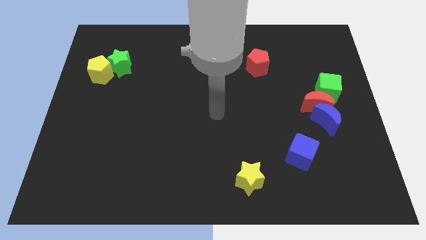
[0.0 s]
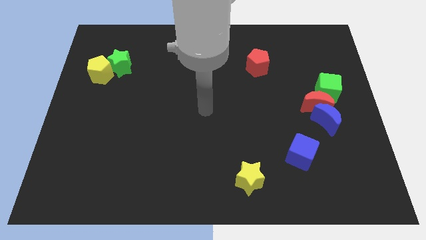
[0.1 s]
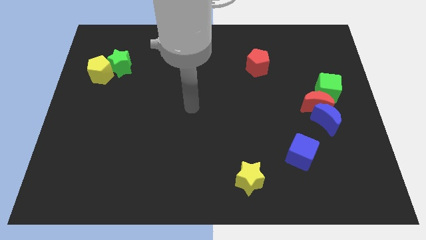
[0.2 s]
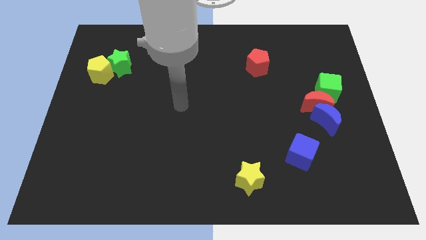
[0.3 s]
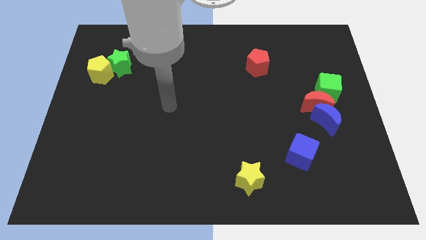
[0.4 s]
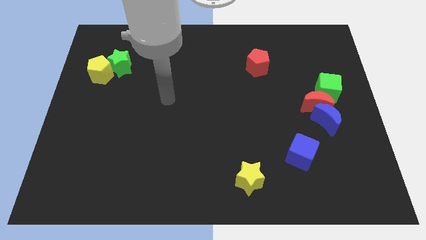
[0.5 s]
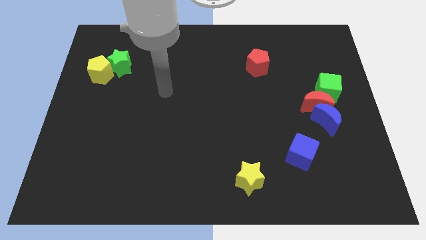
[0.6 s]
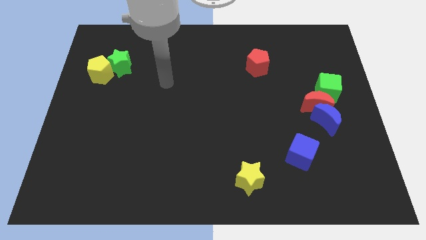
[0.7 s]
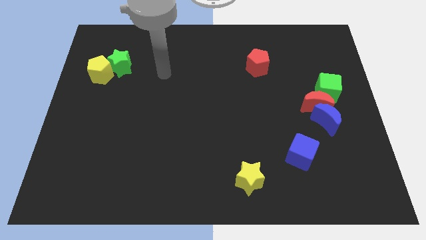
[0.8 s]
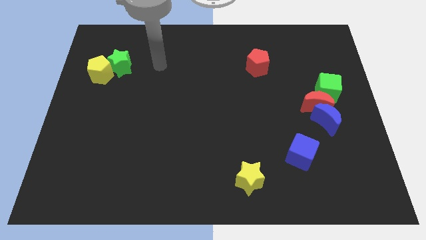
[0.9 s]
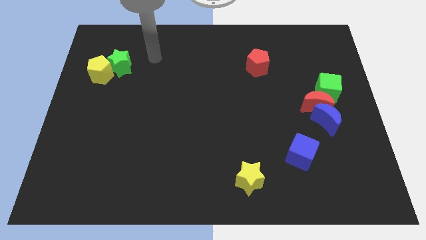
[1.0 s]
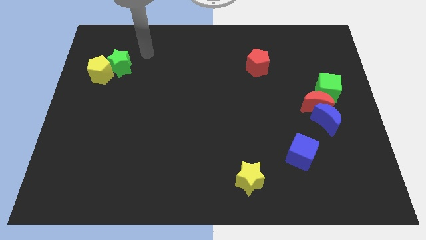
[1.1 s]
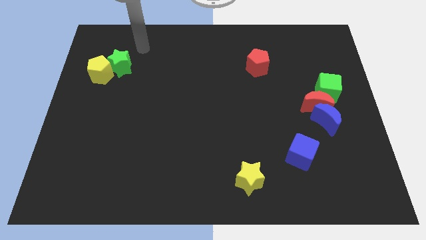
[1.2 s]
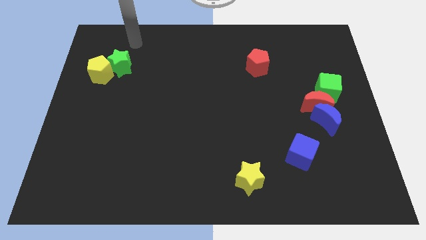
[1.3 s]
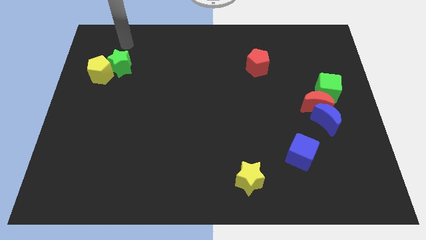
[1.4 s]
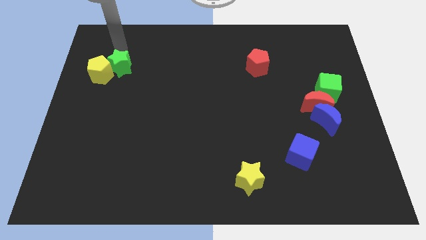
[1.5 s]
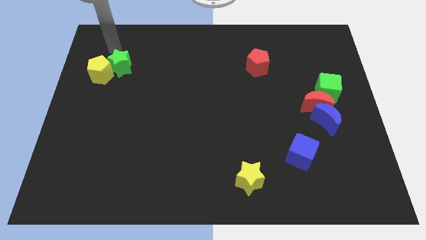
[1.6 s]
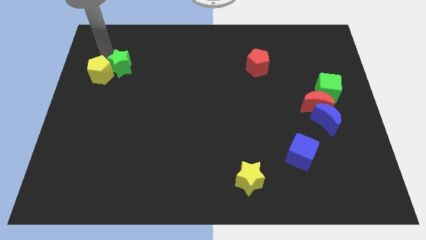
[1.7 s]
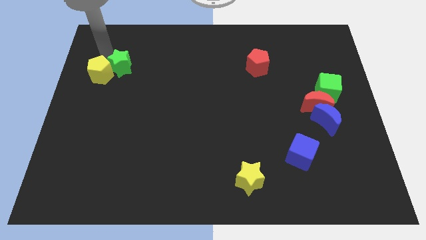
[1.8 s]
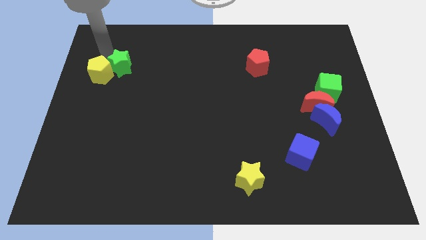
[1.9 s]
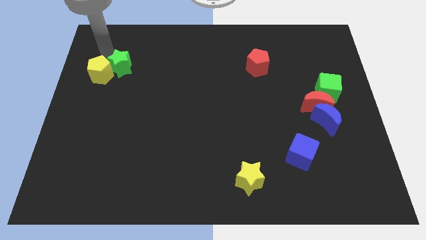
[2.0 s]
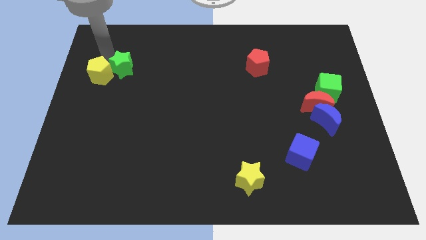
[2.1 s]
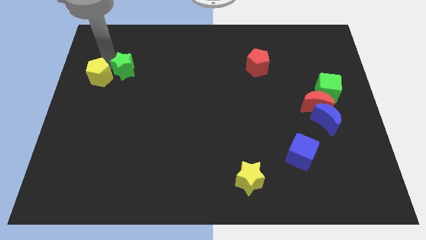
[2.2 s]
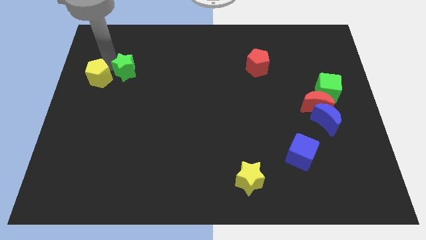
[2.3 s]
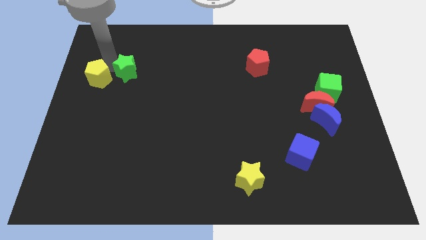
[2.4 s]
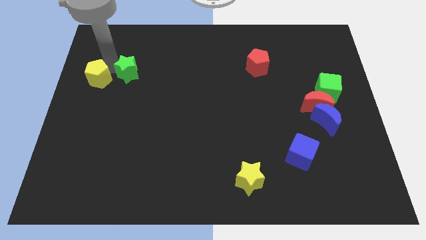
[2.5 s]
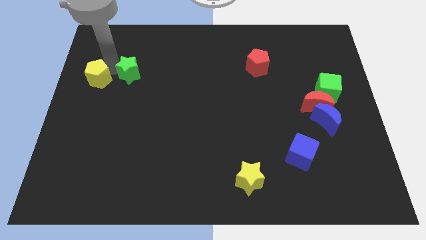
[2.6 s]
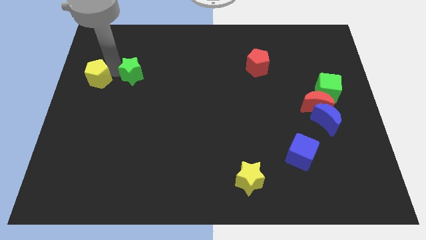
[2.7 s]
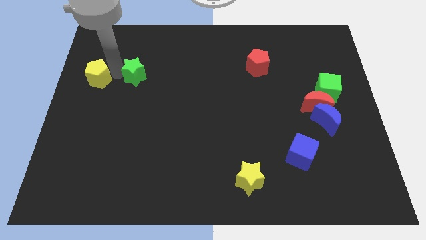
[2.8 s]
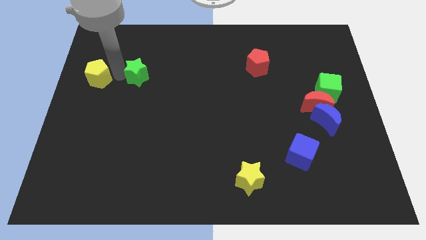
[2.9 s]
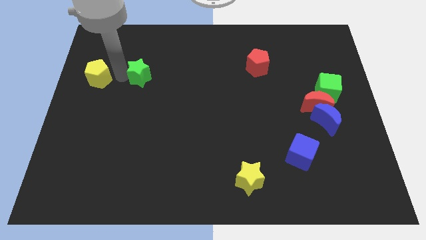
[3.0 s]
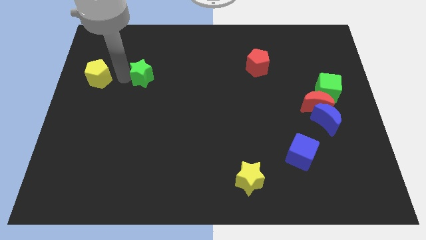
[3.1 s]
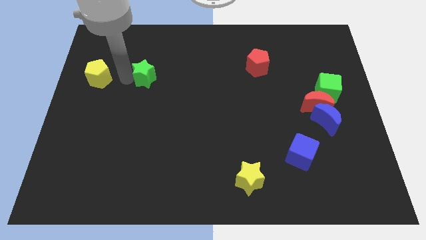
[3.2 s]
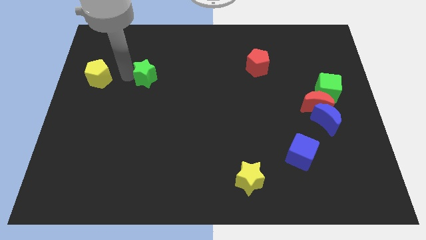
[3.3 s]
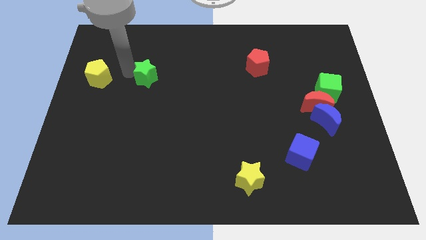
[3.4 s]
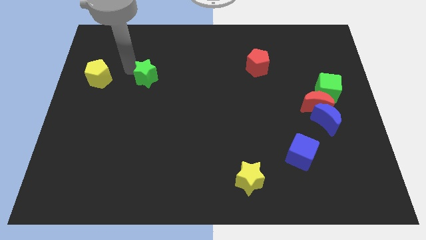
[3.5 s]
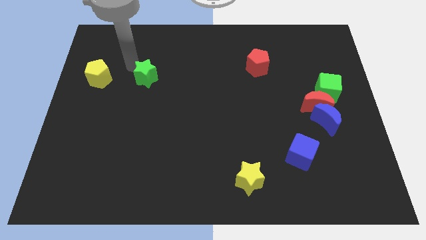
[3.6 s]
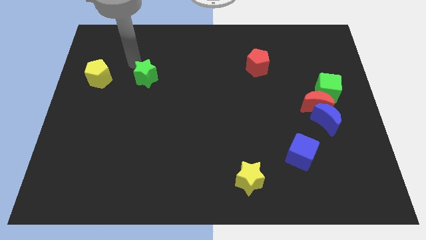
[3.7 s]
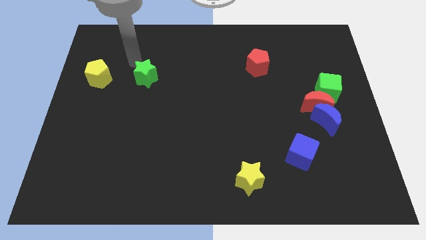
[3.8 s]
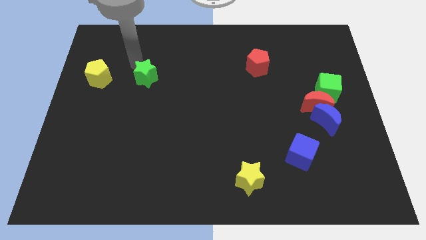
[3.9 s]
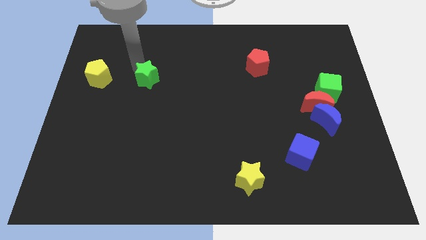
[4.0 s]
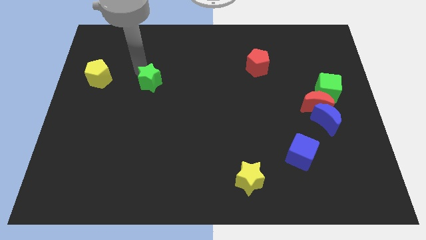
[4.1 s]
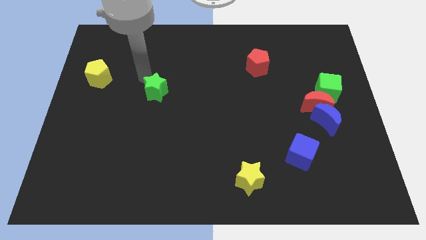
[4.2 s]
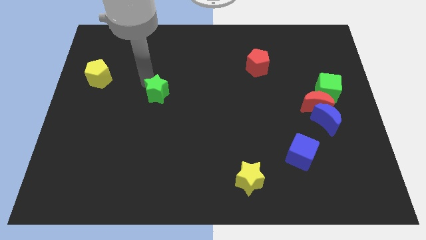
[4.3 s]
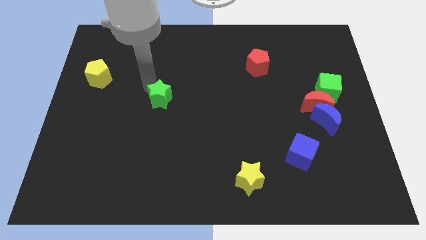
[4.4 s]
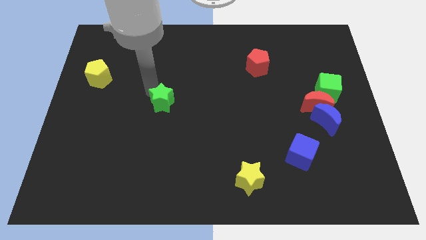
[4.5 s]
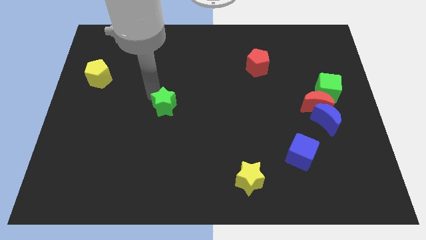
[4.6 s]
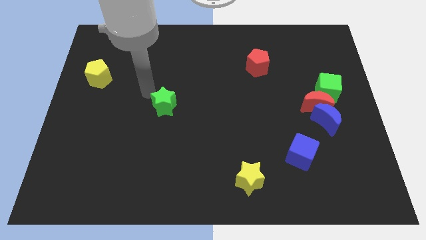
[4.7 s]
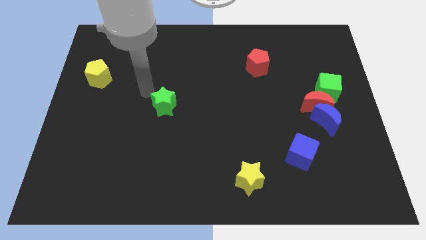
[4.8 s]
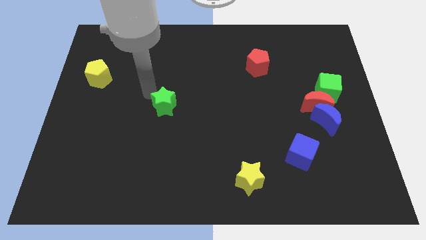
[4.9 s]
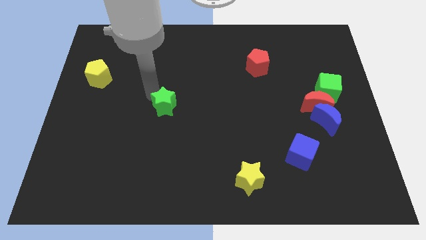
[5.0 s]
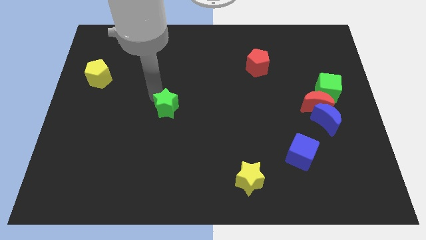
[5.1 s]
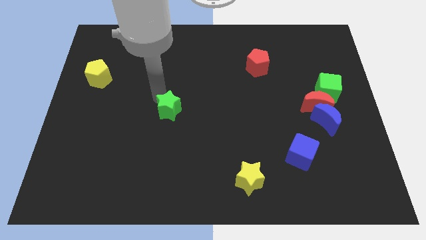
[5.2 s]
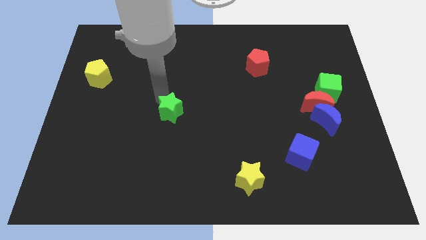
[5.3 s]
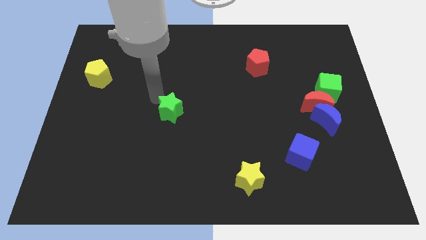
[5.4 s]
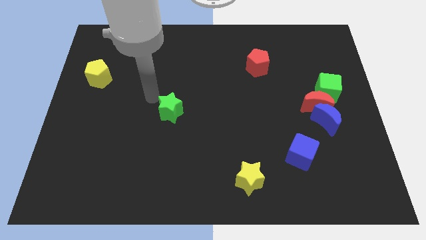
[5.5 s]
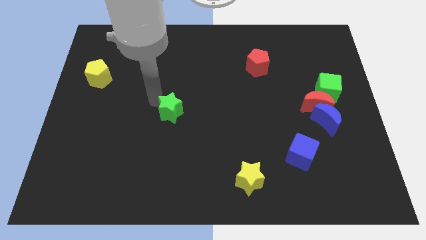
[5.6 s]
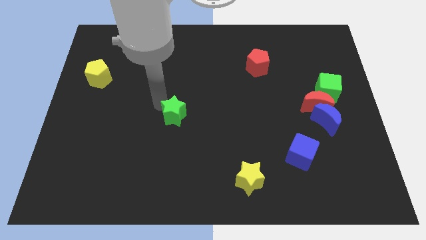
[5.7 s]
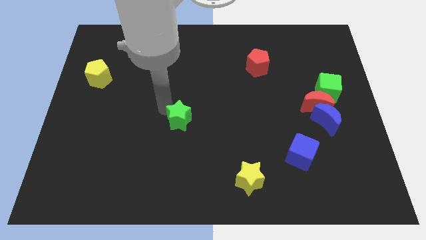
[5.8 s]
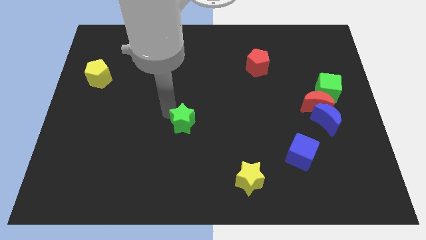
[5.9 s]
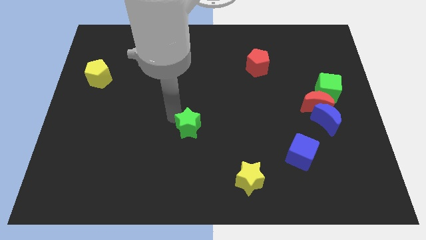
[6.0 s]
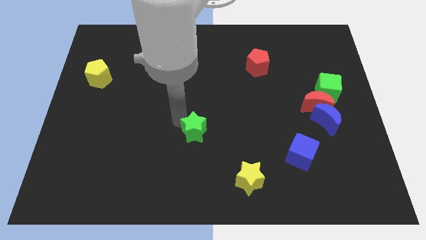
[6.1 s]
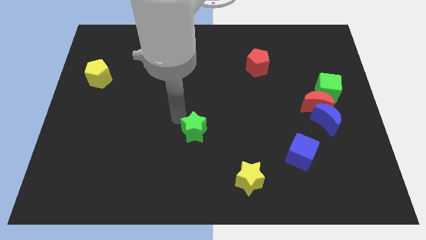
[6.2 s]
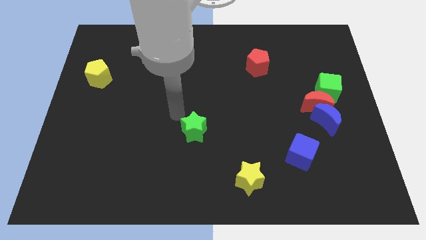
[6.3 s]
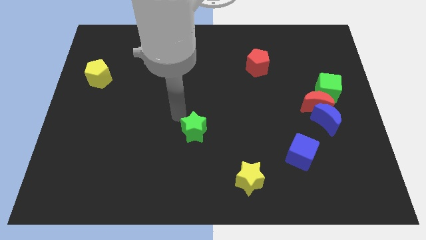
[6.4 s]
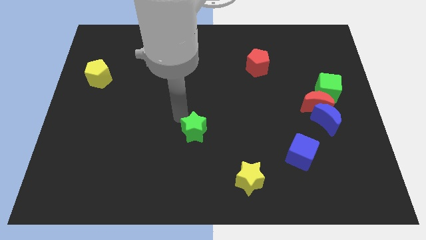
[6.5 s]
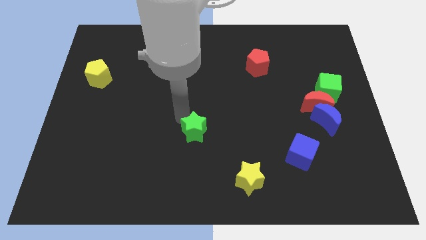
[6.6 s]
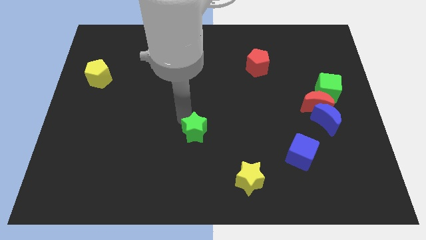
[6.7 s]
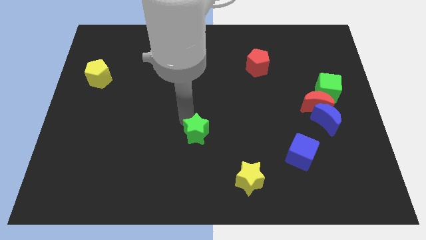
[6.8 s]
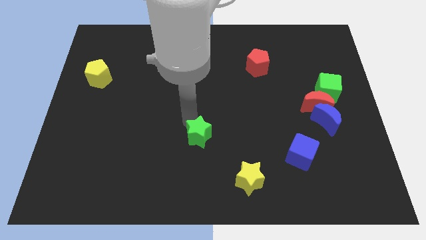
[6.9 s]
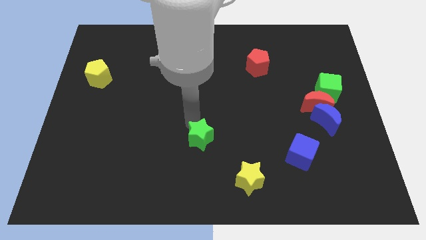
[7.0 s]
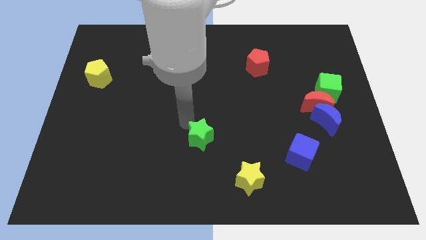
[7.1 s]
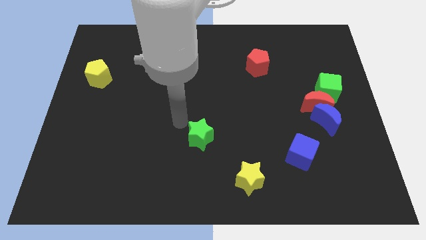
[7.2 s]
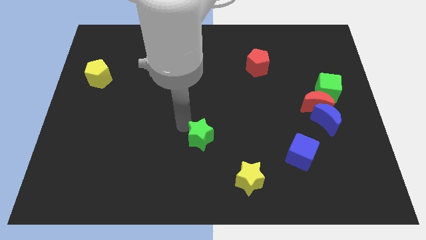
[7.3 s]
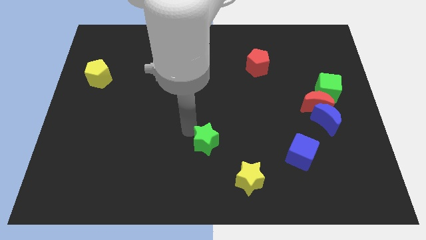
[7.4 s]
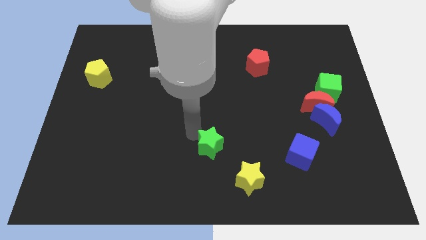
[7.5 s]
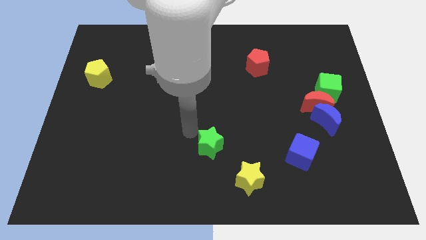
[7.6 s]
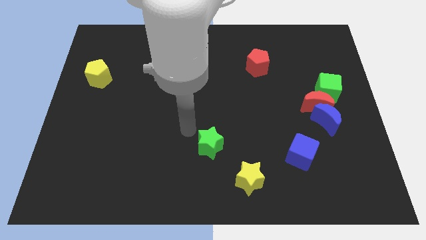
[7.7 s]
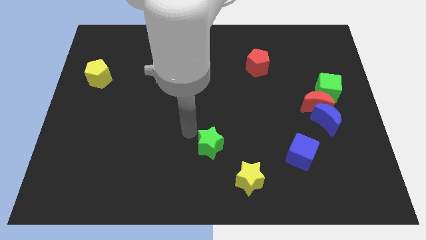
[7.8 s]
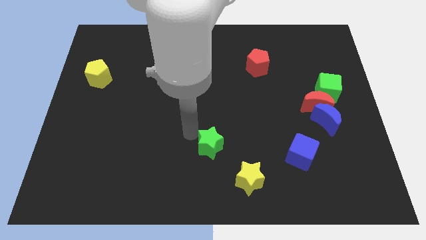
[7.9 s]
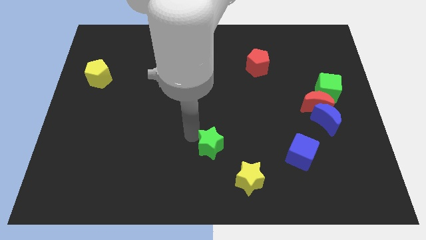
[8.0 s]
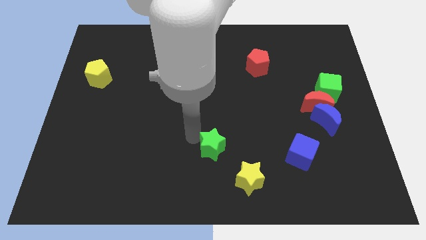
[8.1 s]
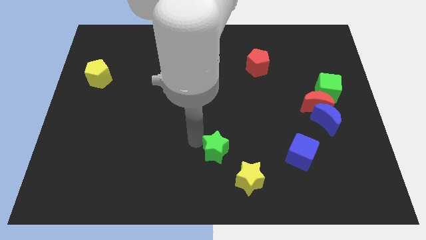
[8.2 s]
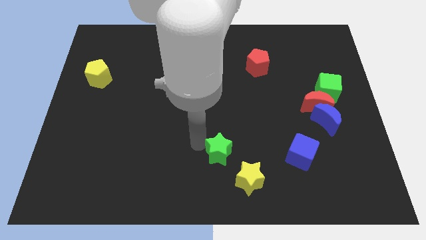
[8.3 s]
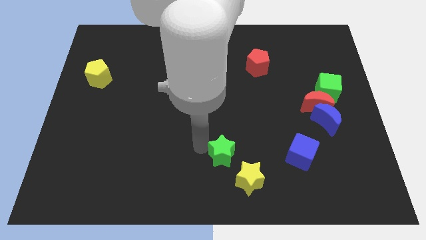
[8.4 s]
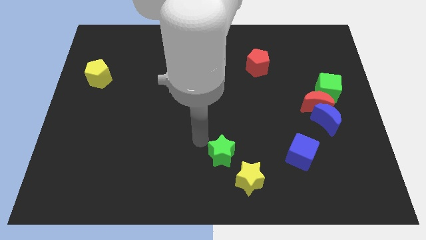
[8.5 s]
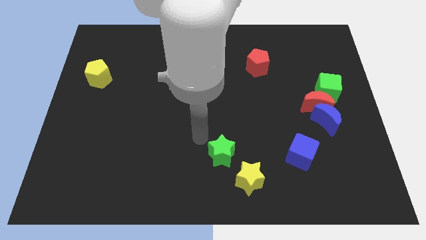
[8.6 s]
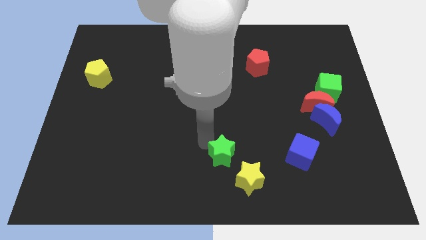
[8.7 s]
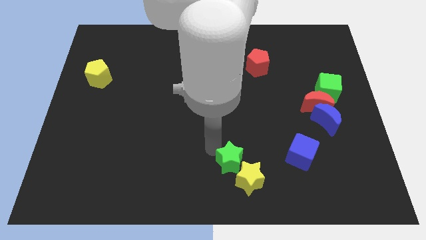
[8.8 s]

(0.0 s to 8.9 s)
move the green star next to the yellow star
